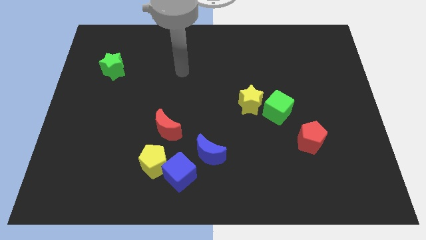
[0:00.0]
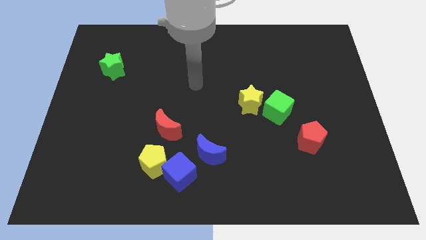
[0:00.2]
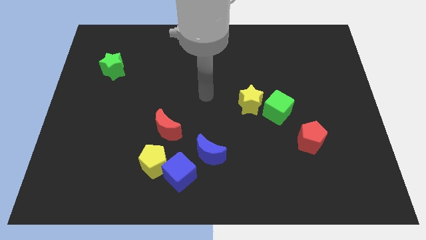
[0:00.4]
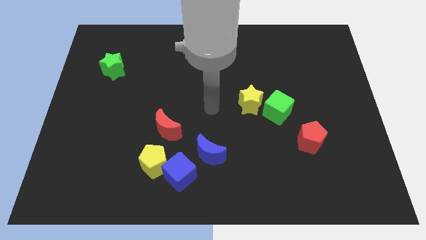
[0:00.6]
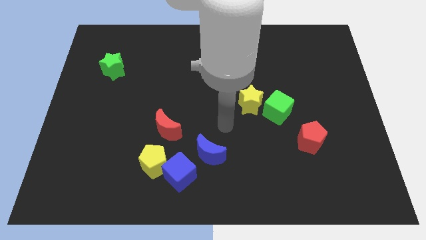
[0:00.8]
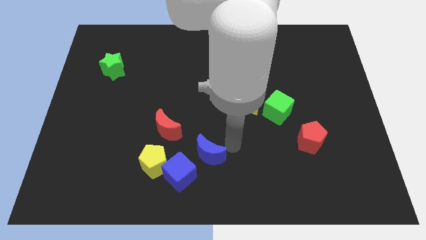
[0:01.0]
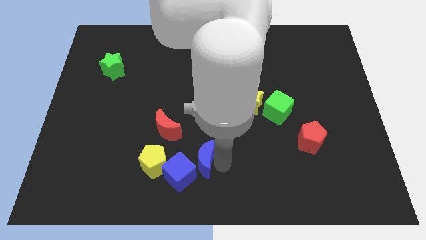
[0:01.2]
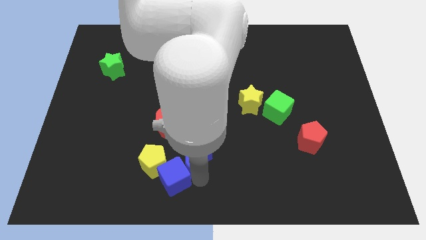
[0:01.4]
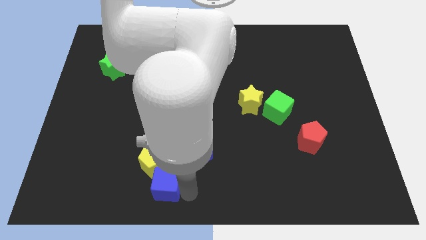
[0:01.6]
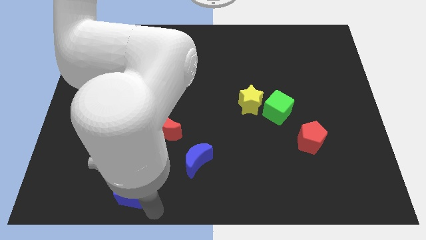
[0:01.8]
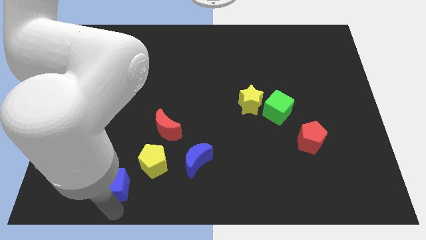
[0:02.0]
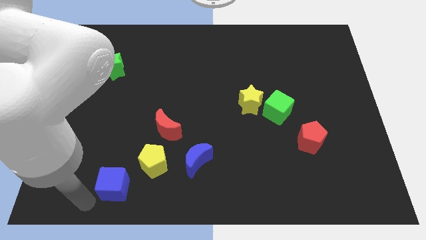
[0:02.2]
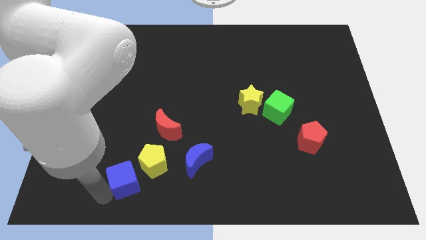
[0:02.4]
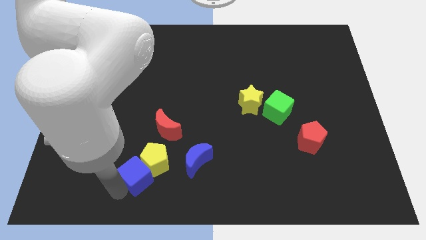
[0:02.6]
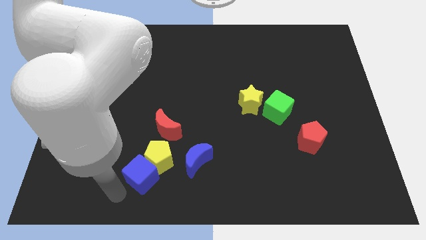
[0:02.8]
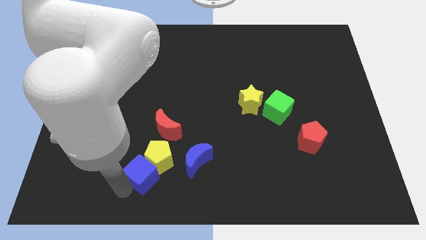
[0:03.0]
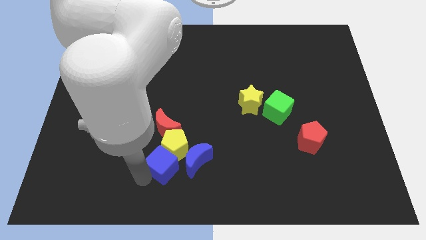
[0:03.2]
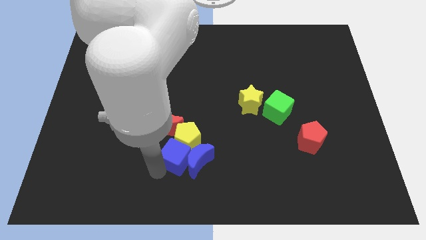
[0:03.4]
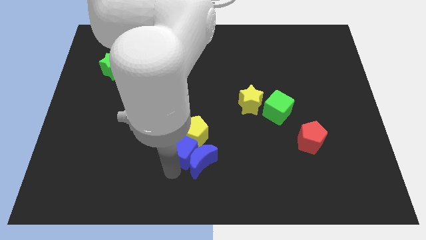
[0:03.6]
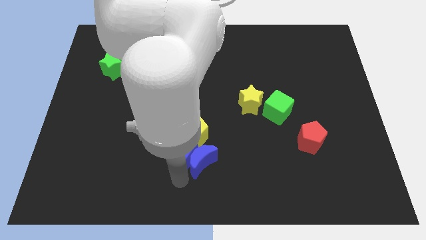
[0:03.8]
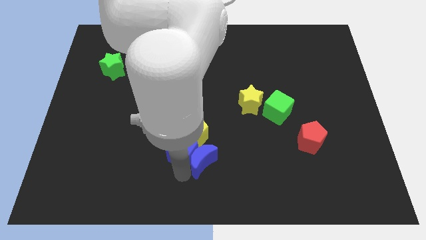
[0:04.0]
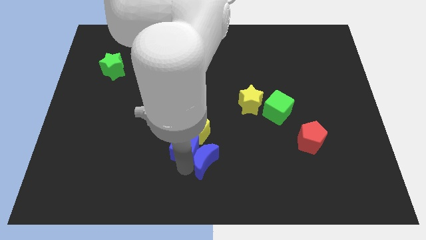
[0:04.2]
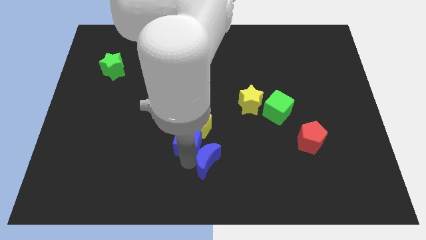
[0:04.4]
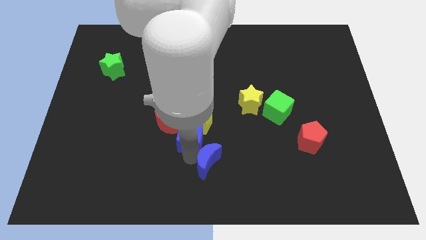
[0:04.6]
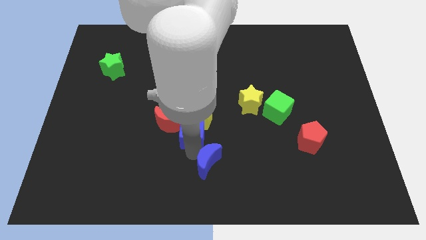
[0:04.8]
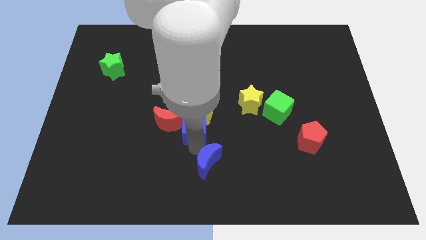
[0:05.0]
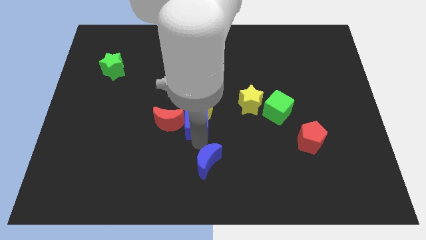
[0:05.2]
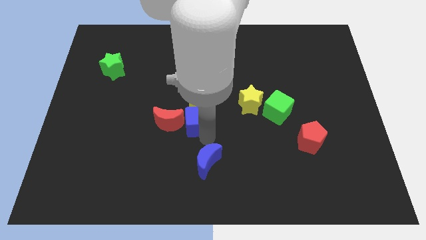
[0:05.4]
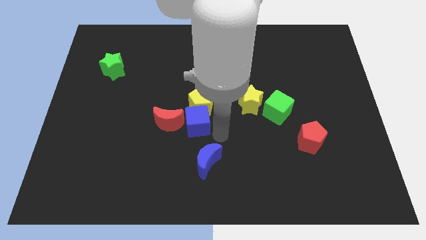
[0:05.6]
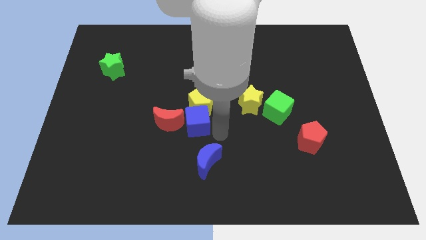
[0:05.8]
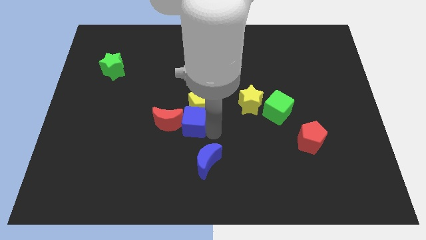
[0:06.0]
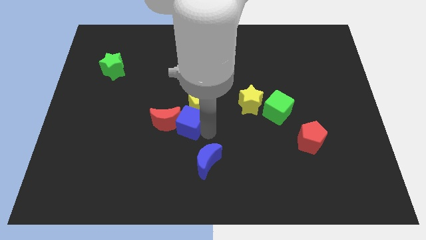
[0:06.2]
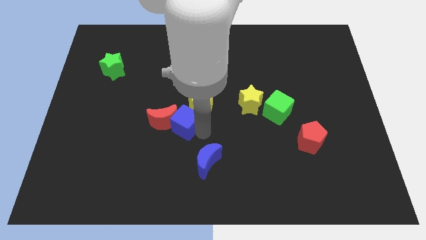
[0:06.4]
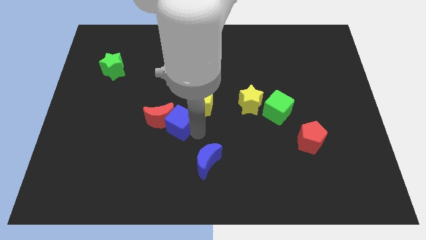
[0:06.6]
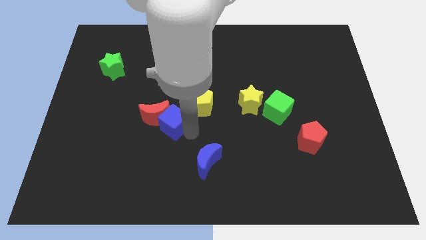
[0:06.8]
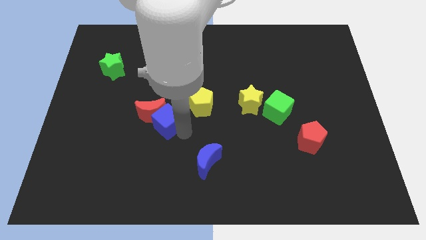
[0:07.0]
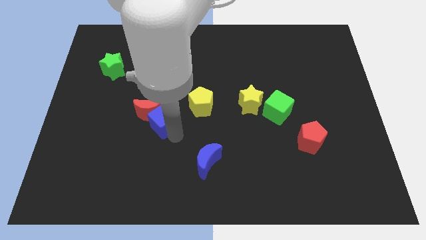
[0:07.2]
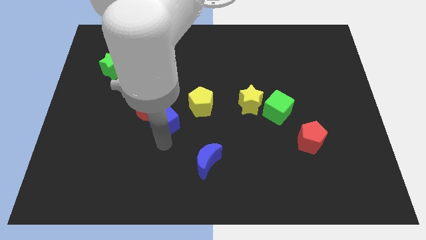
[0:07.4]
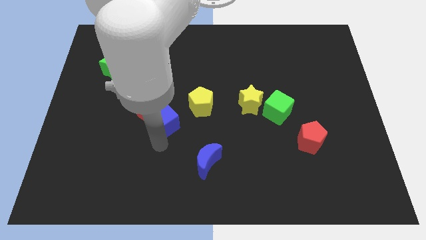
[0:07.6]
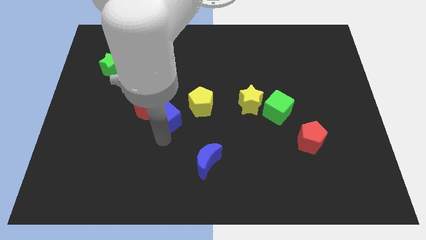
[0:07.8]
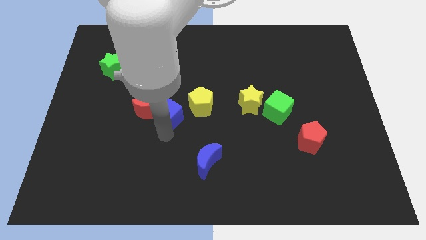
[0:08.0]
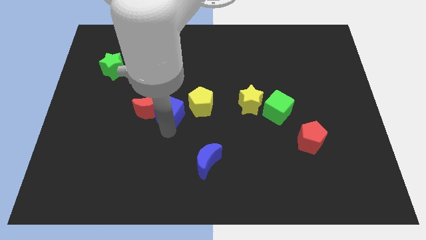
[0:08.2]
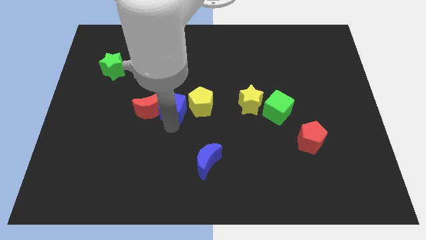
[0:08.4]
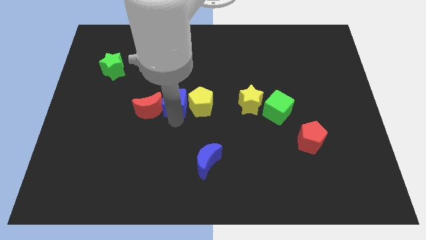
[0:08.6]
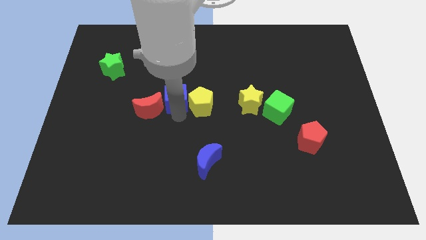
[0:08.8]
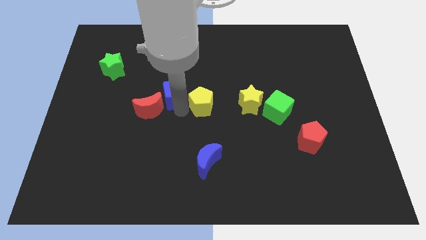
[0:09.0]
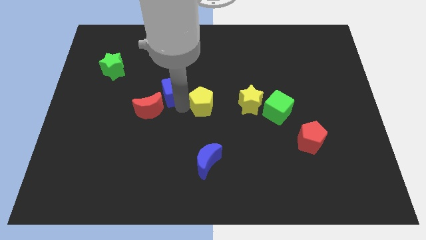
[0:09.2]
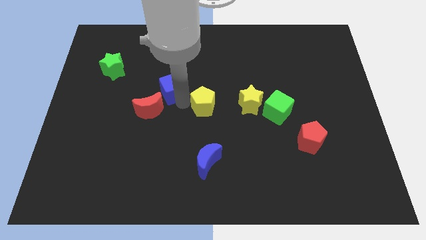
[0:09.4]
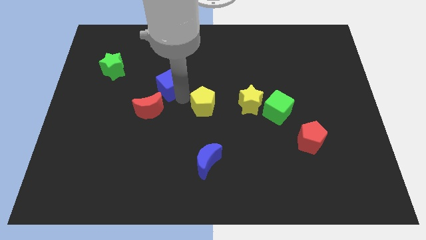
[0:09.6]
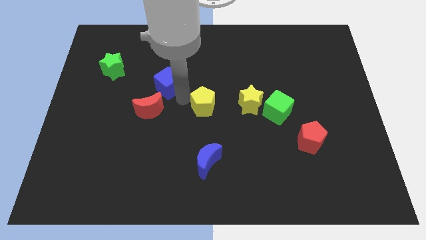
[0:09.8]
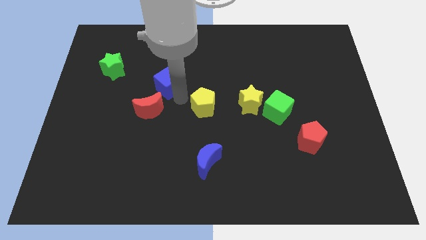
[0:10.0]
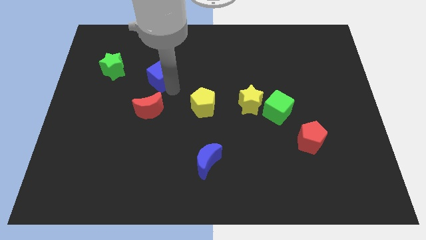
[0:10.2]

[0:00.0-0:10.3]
move the blue cube just right of the green star

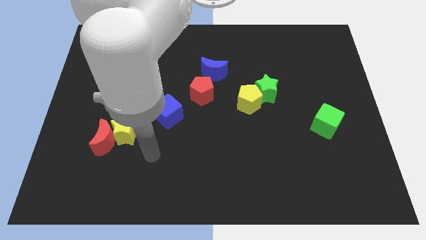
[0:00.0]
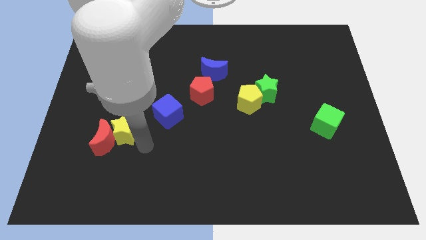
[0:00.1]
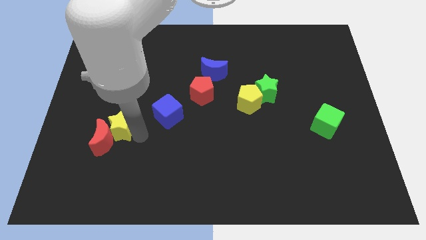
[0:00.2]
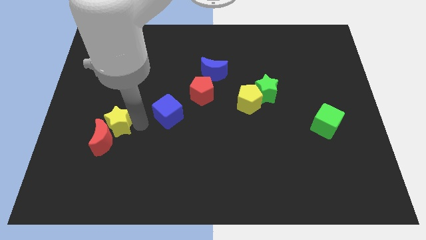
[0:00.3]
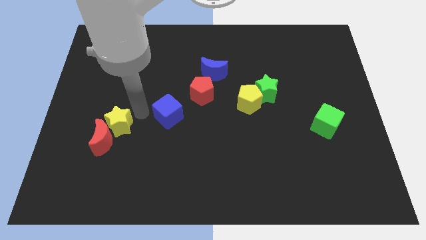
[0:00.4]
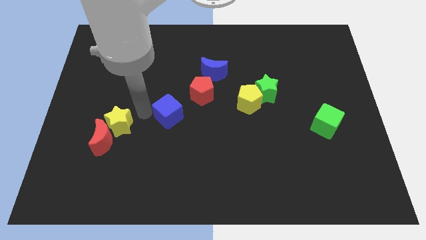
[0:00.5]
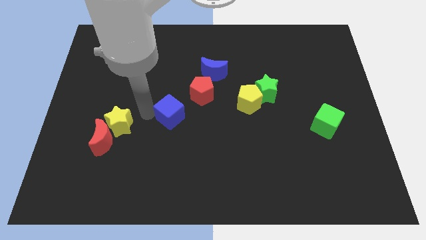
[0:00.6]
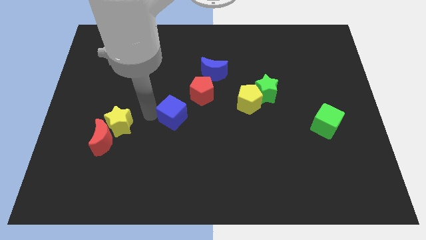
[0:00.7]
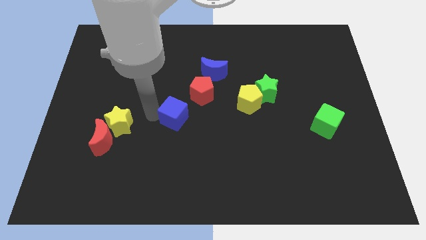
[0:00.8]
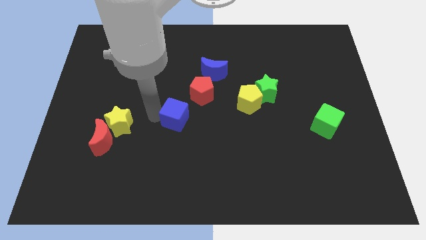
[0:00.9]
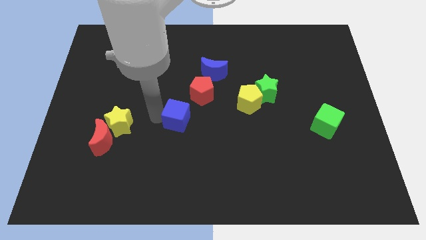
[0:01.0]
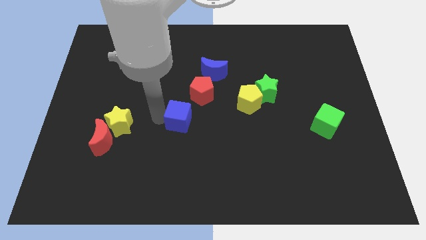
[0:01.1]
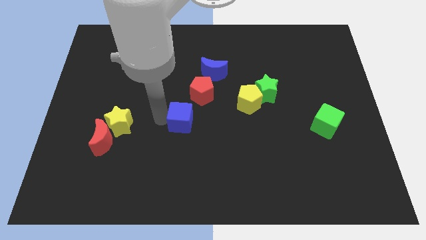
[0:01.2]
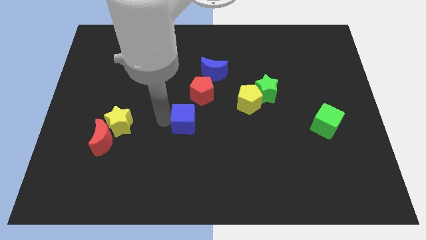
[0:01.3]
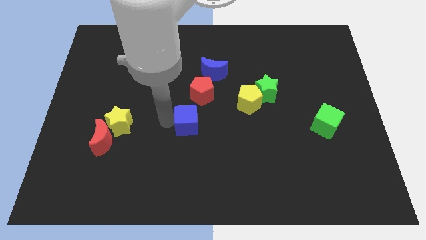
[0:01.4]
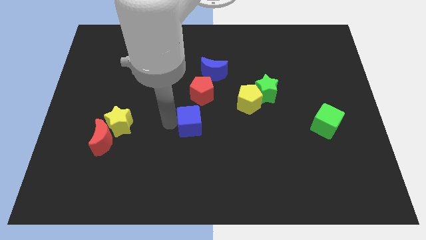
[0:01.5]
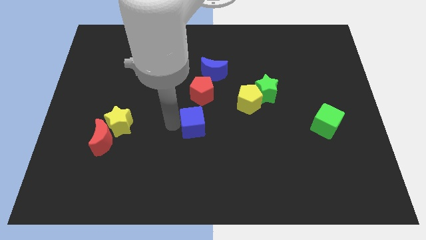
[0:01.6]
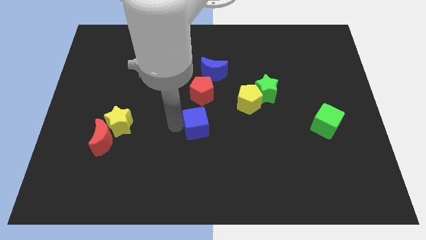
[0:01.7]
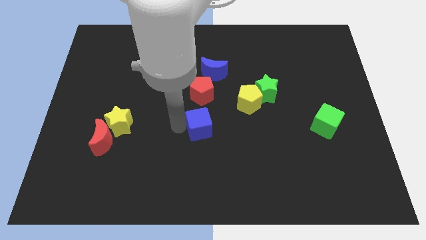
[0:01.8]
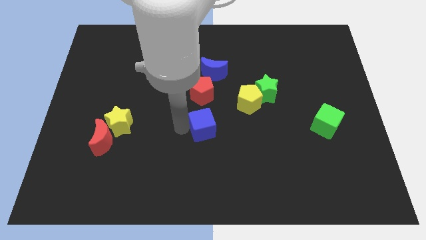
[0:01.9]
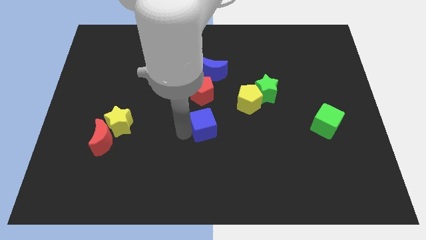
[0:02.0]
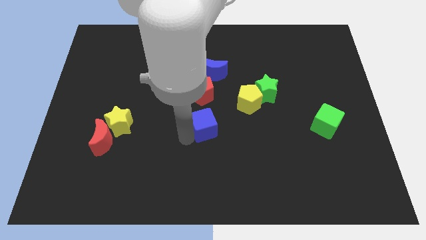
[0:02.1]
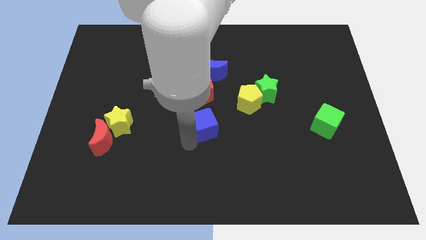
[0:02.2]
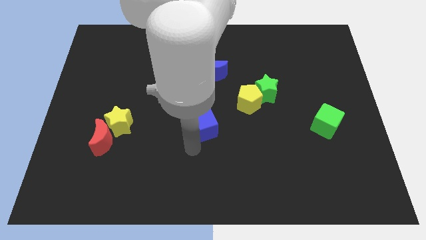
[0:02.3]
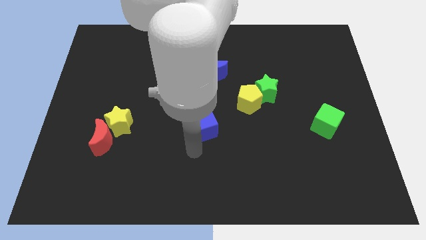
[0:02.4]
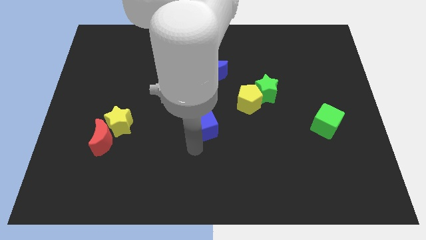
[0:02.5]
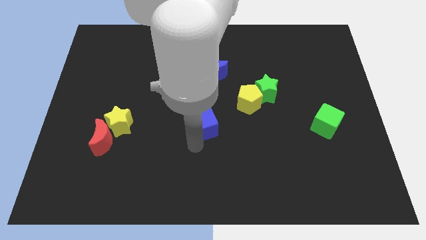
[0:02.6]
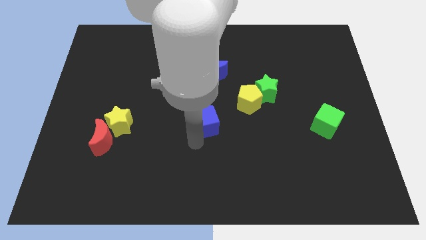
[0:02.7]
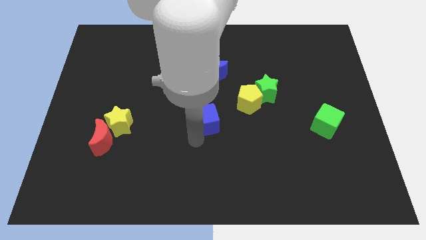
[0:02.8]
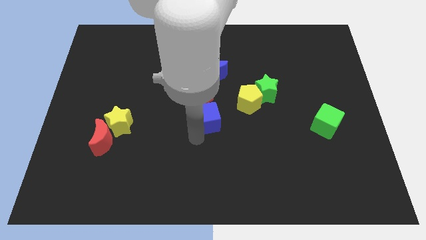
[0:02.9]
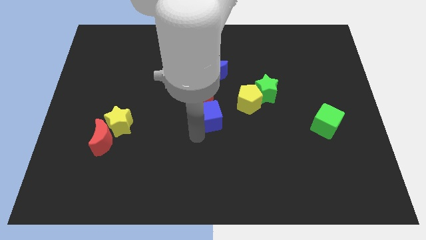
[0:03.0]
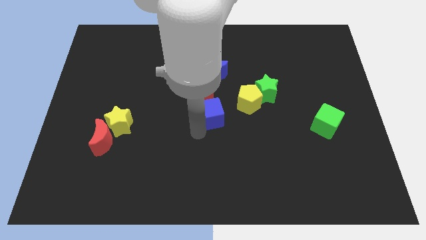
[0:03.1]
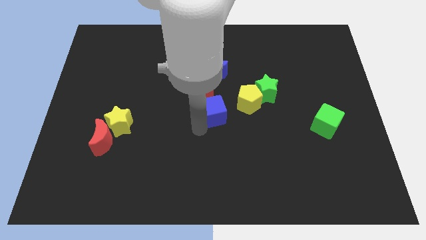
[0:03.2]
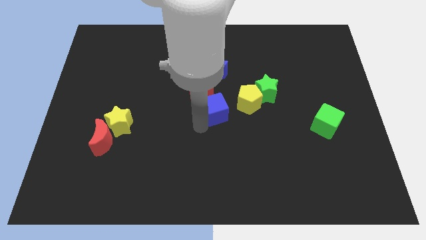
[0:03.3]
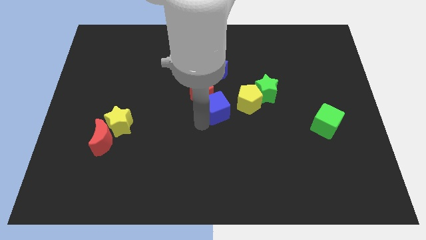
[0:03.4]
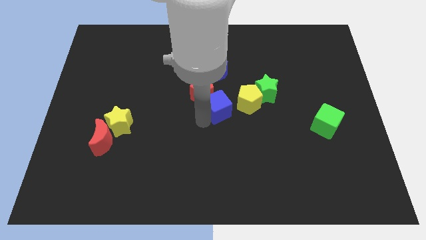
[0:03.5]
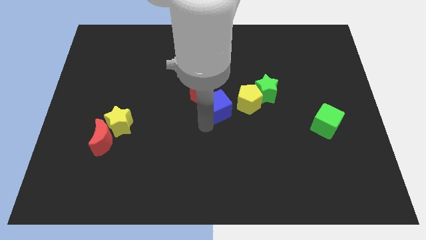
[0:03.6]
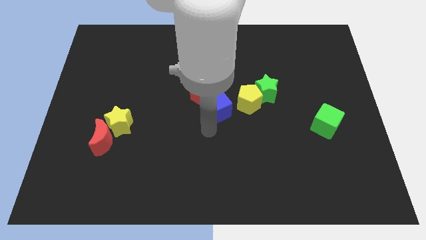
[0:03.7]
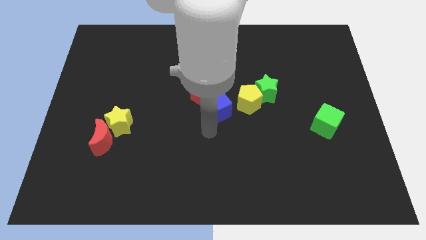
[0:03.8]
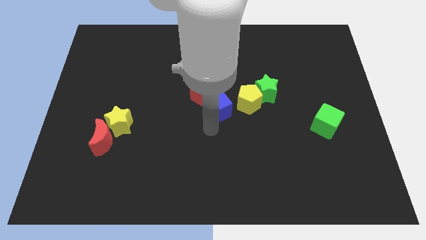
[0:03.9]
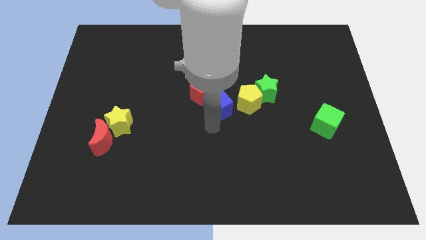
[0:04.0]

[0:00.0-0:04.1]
slide the blue cube to the left side of the green star
